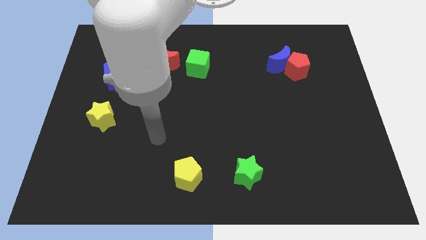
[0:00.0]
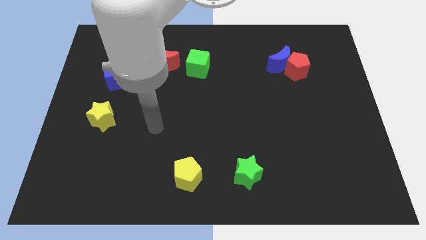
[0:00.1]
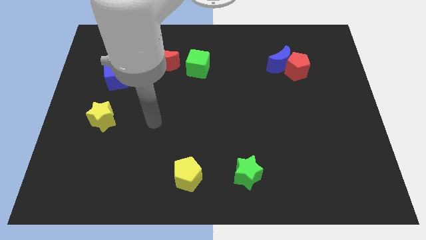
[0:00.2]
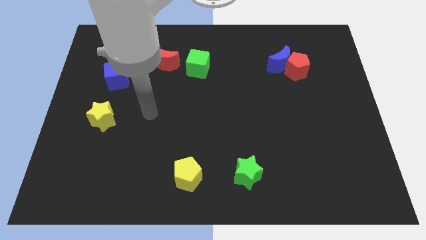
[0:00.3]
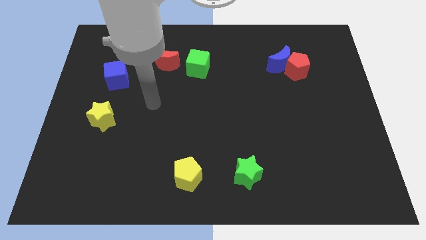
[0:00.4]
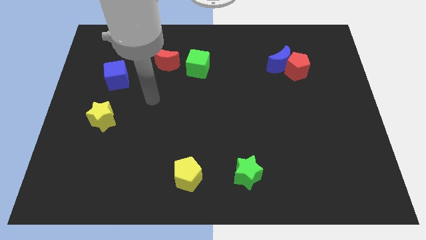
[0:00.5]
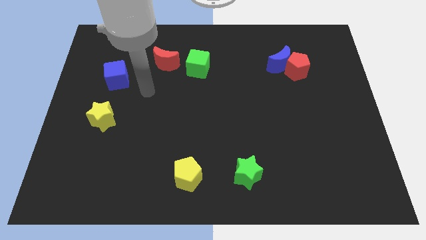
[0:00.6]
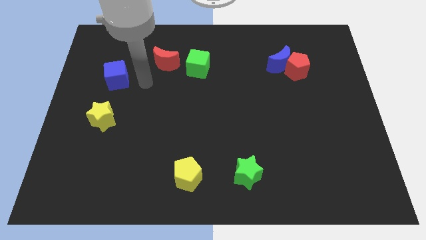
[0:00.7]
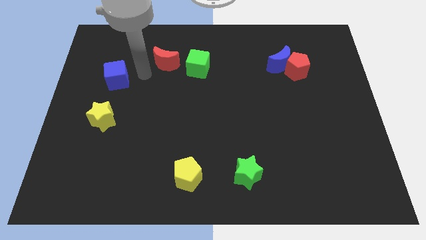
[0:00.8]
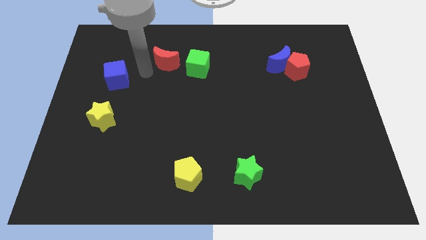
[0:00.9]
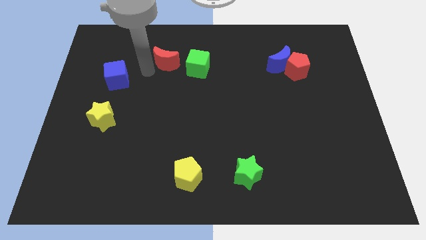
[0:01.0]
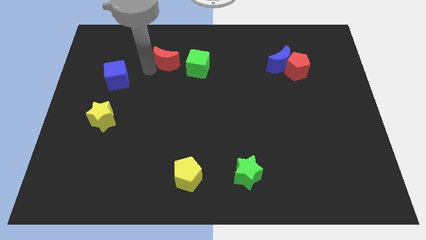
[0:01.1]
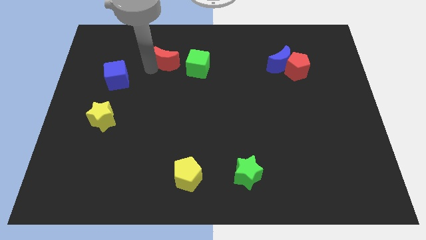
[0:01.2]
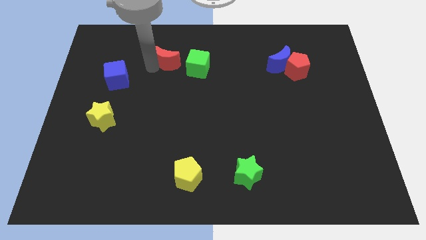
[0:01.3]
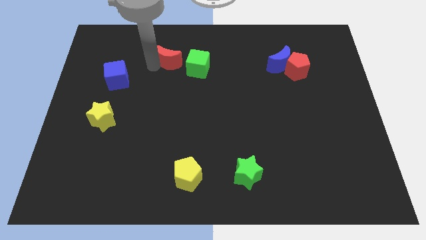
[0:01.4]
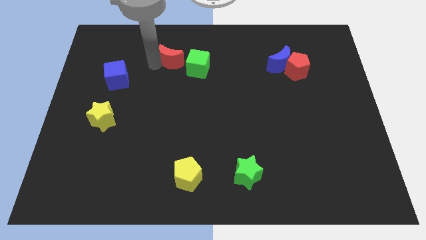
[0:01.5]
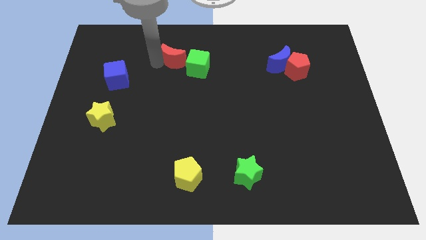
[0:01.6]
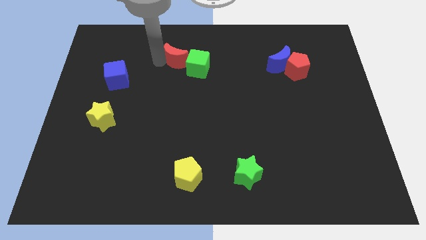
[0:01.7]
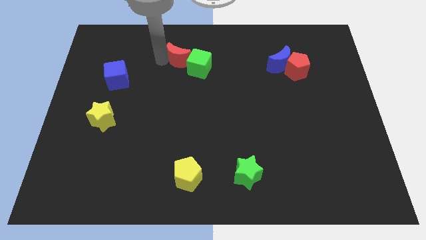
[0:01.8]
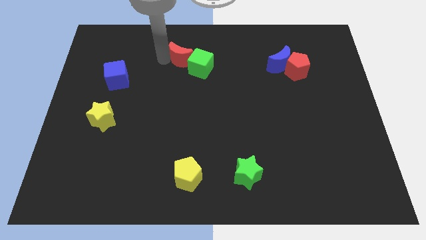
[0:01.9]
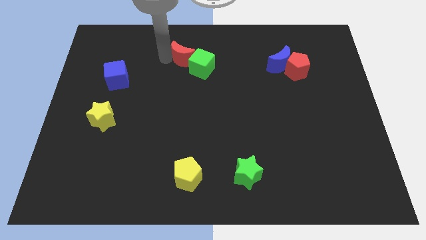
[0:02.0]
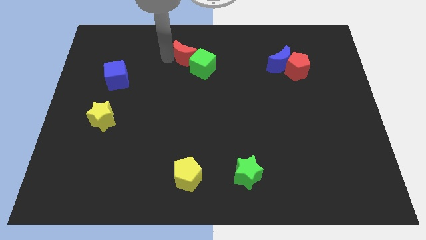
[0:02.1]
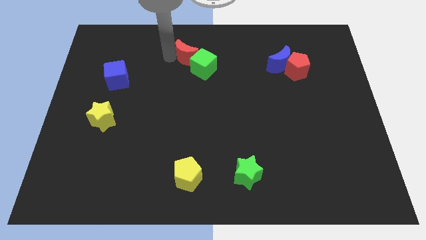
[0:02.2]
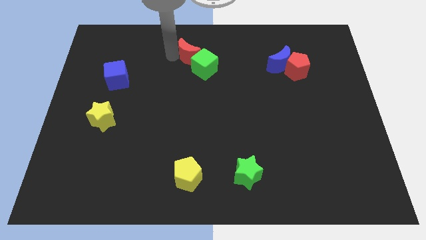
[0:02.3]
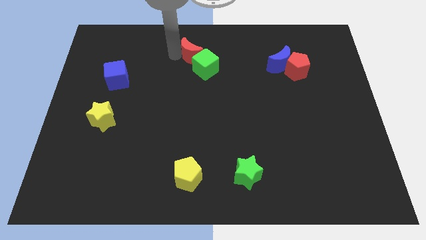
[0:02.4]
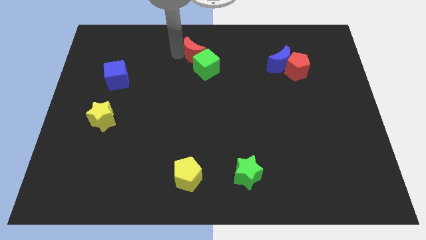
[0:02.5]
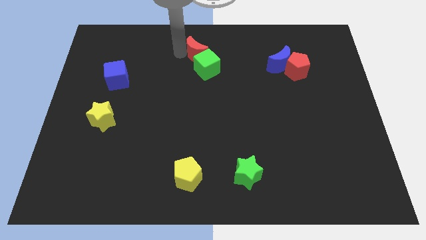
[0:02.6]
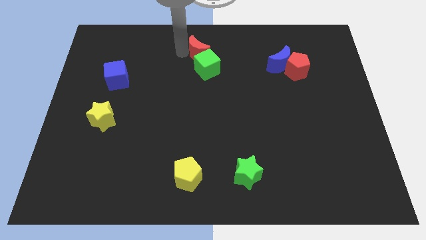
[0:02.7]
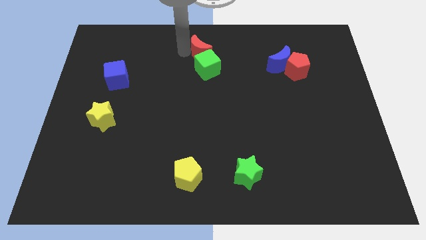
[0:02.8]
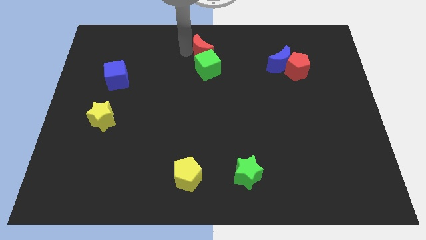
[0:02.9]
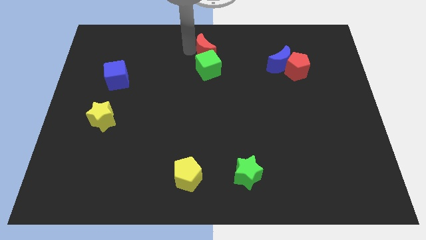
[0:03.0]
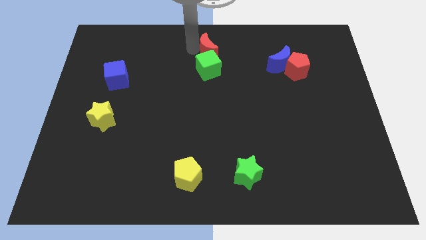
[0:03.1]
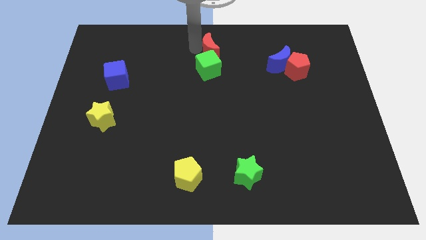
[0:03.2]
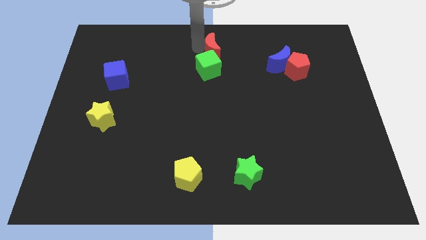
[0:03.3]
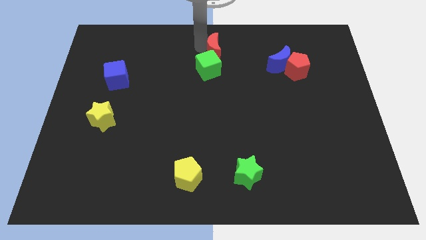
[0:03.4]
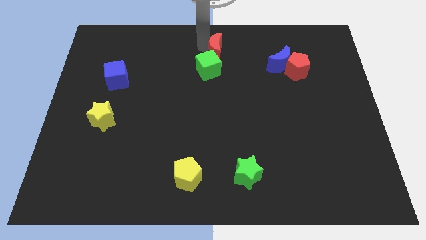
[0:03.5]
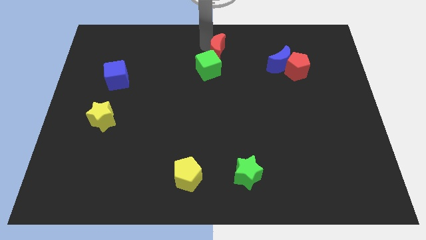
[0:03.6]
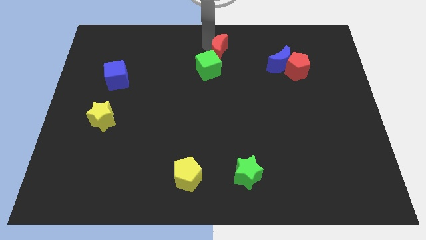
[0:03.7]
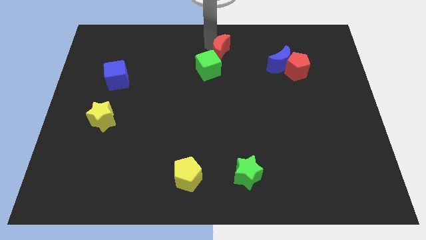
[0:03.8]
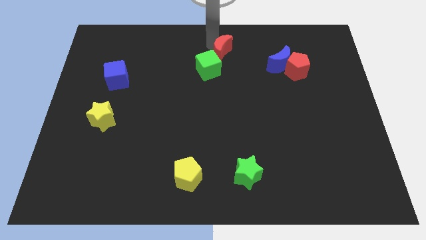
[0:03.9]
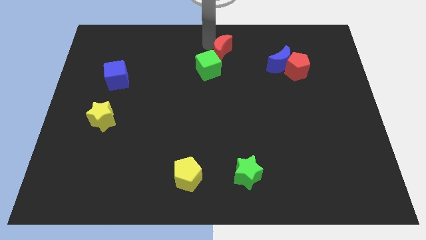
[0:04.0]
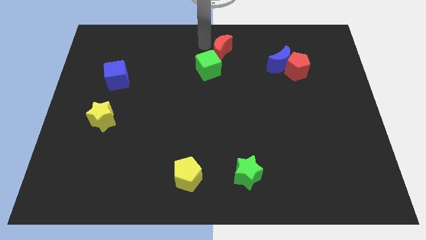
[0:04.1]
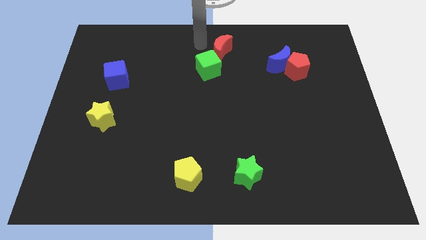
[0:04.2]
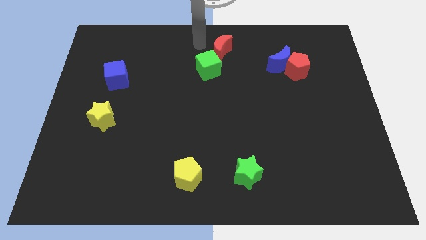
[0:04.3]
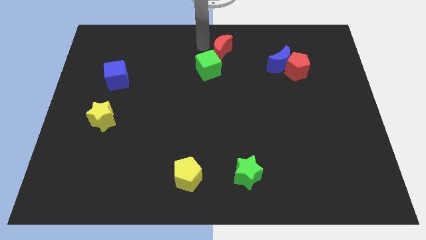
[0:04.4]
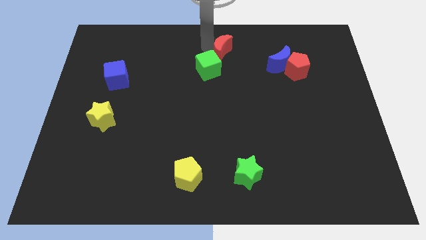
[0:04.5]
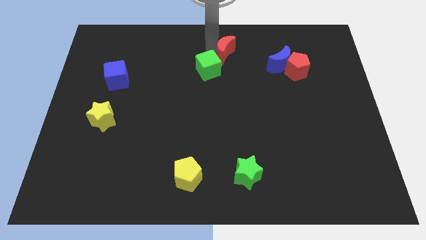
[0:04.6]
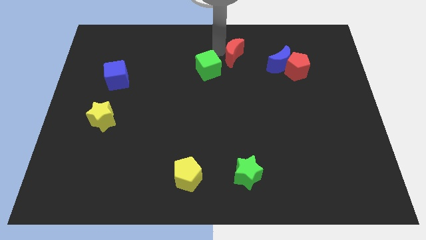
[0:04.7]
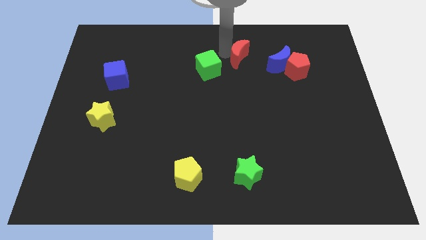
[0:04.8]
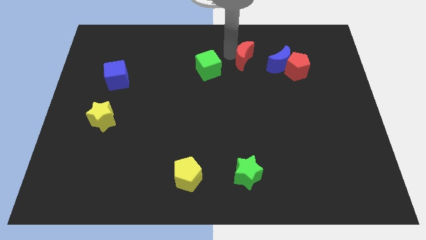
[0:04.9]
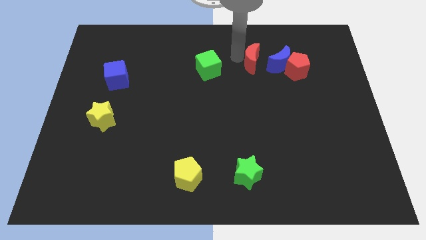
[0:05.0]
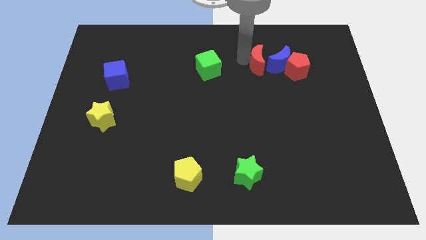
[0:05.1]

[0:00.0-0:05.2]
move the red moon towards the blue moon

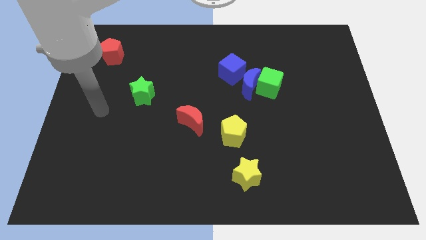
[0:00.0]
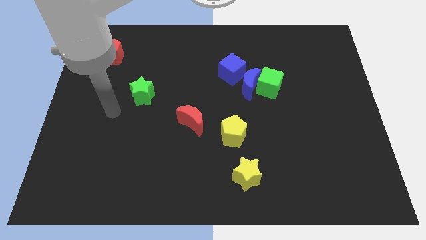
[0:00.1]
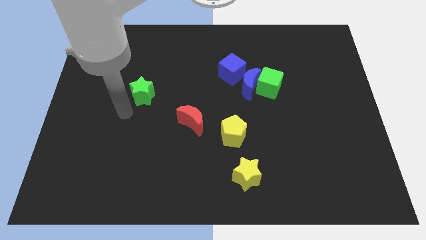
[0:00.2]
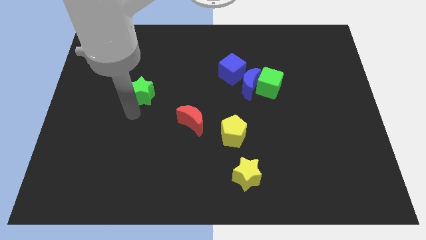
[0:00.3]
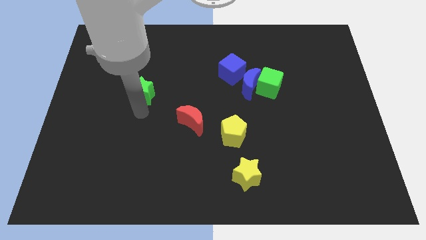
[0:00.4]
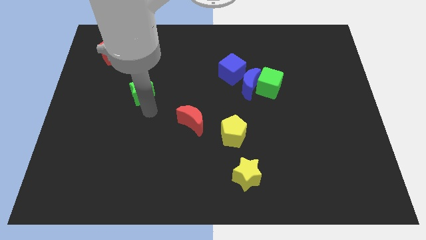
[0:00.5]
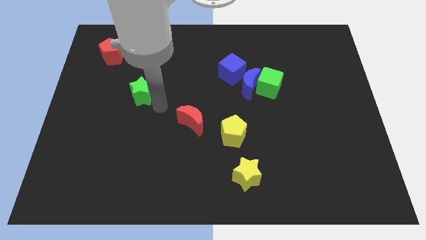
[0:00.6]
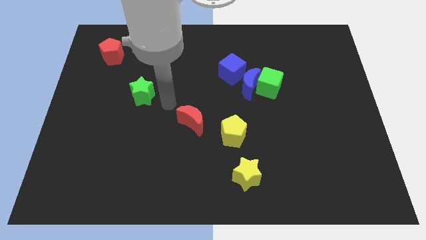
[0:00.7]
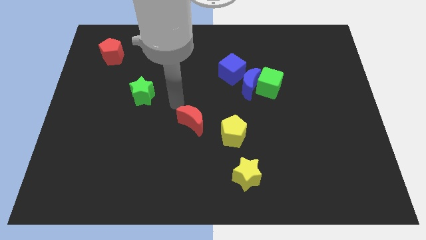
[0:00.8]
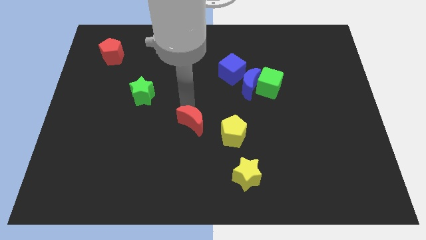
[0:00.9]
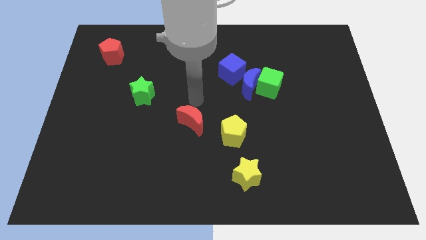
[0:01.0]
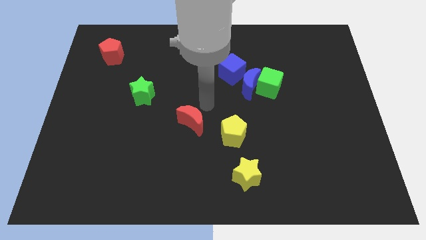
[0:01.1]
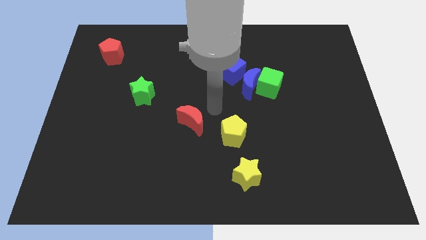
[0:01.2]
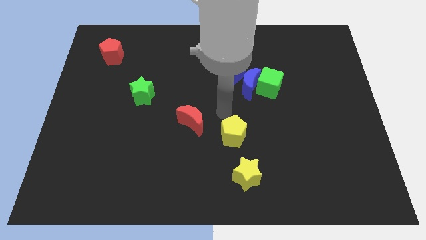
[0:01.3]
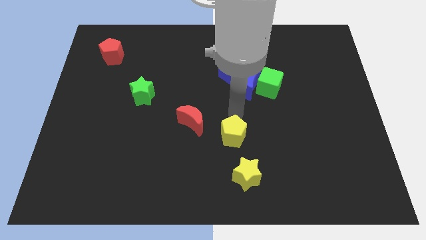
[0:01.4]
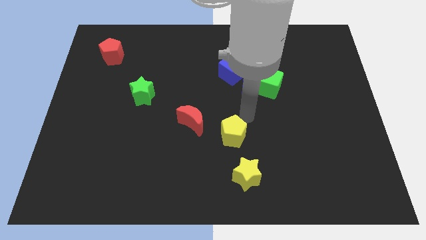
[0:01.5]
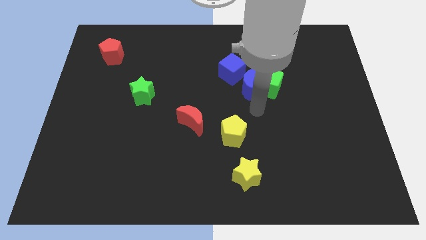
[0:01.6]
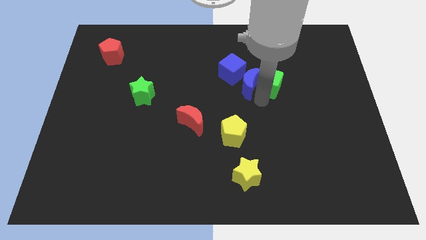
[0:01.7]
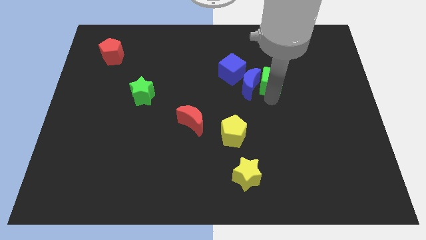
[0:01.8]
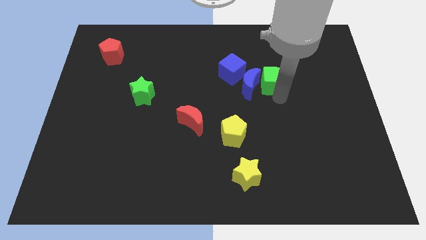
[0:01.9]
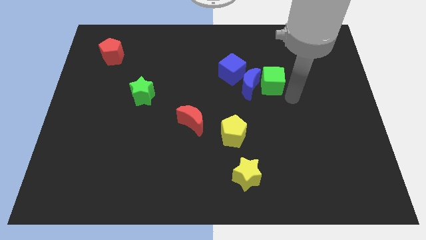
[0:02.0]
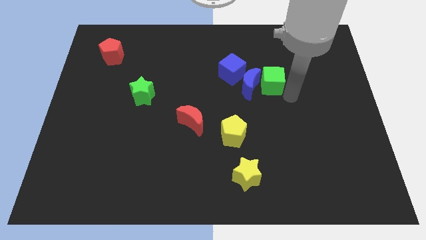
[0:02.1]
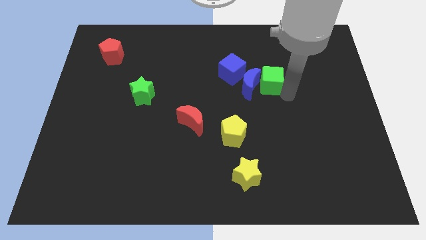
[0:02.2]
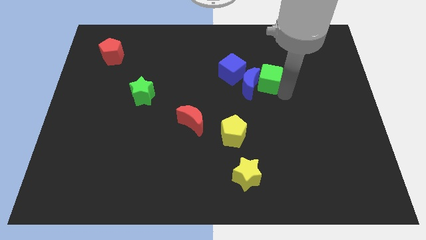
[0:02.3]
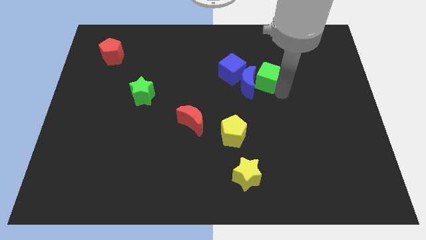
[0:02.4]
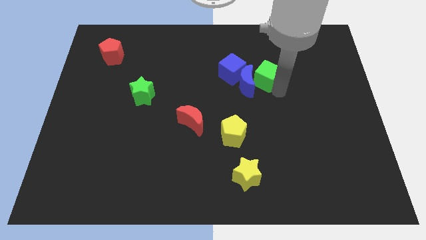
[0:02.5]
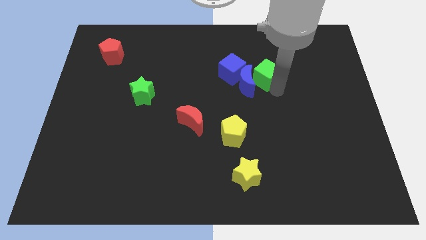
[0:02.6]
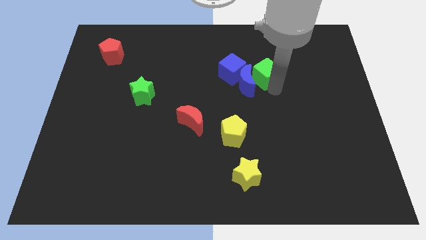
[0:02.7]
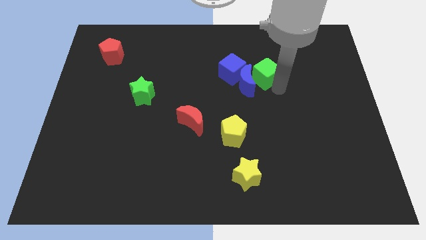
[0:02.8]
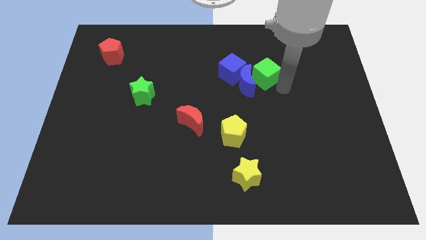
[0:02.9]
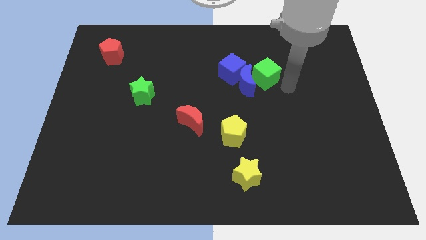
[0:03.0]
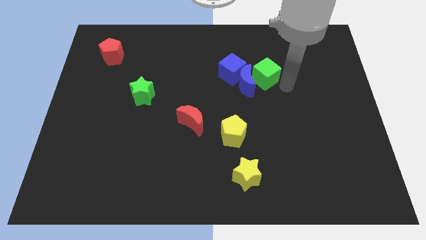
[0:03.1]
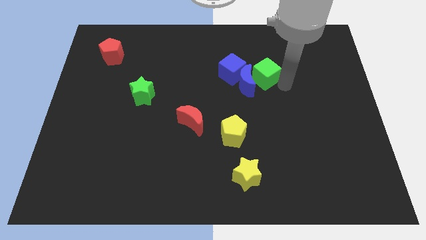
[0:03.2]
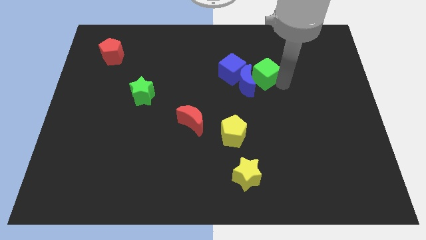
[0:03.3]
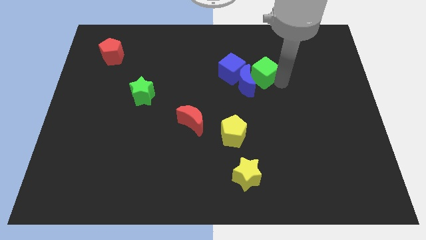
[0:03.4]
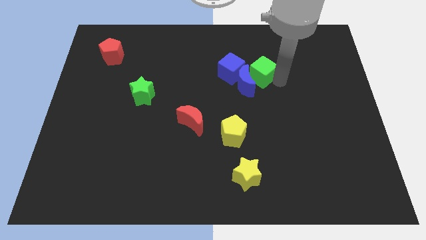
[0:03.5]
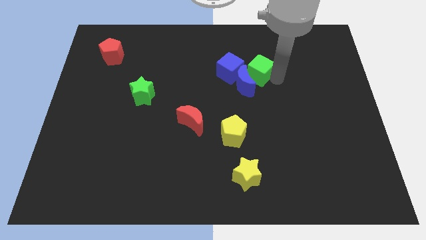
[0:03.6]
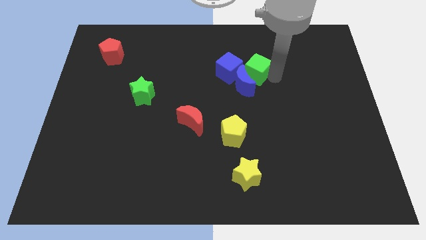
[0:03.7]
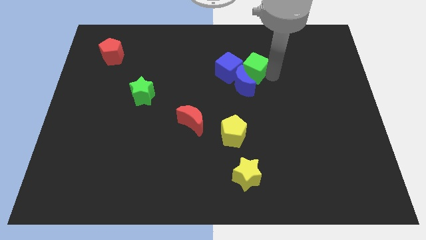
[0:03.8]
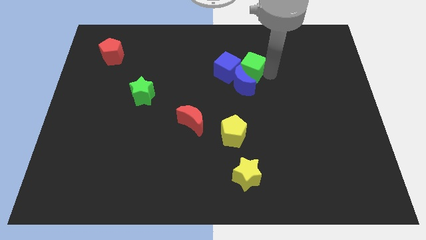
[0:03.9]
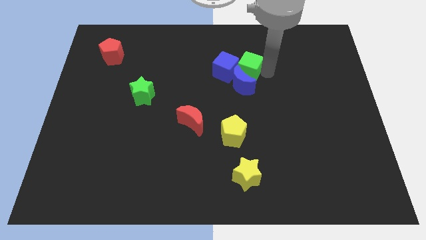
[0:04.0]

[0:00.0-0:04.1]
put the green cube close to the blue cube
